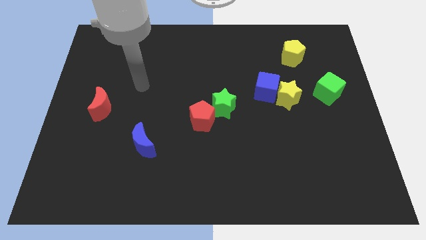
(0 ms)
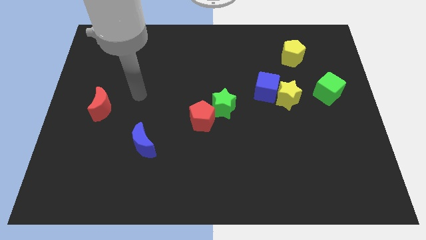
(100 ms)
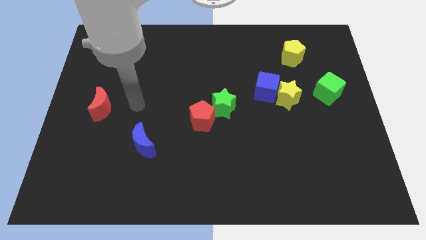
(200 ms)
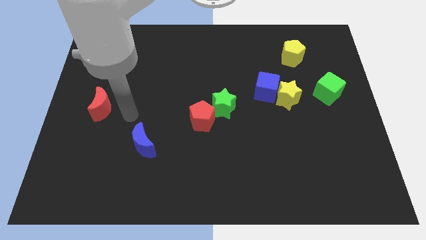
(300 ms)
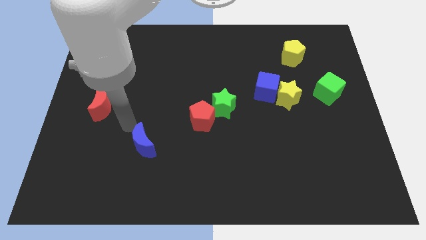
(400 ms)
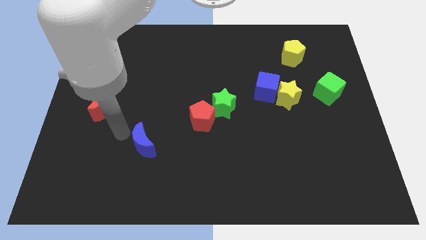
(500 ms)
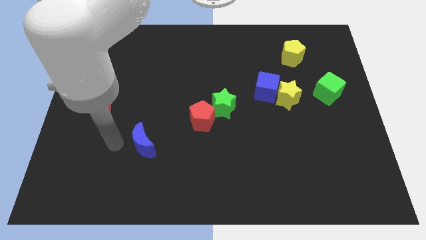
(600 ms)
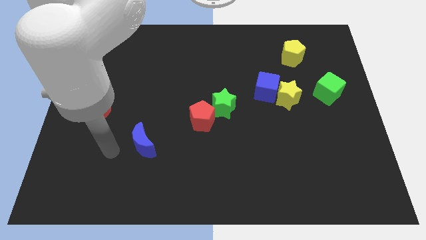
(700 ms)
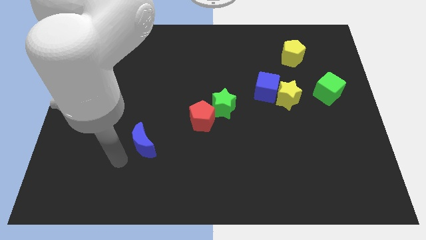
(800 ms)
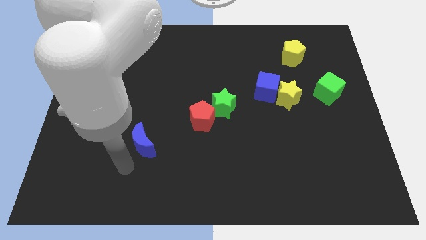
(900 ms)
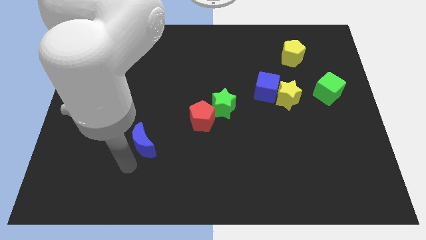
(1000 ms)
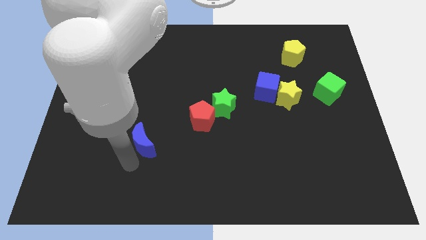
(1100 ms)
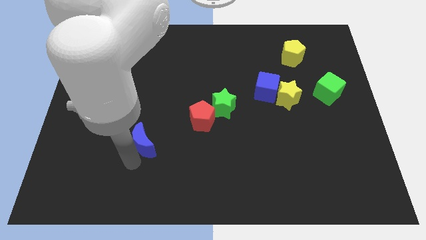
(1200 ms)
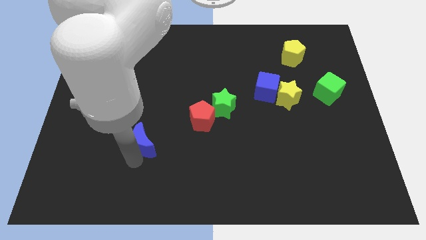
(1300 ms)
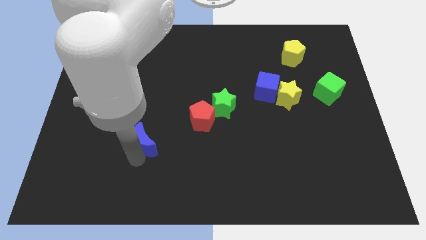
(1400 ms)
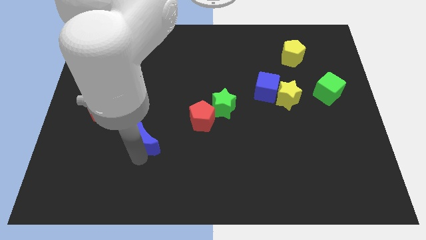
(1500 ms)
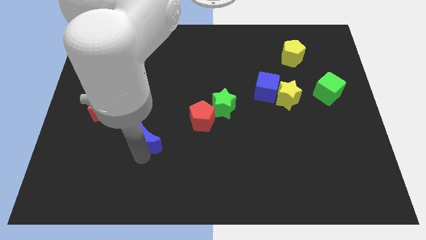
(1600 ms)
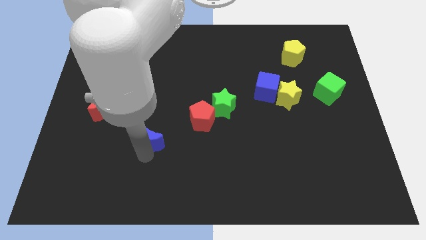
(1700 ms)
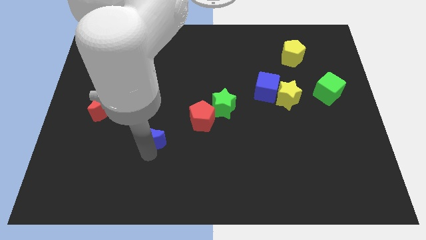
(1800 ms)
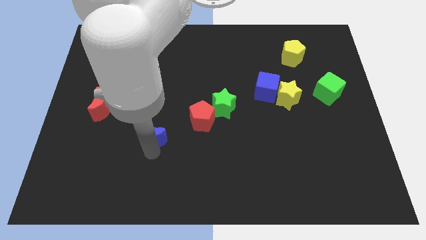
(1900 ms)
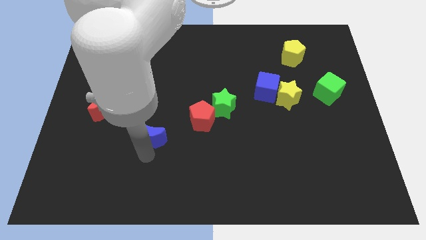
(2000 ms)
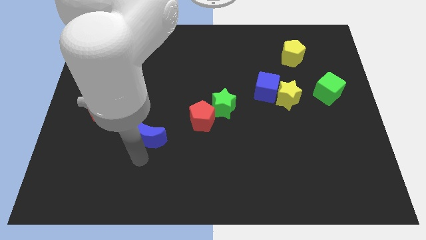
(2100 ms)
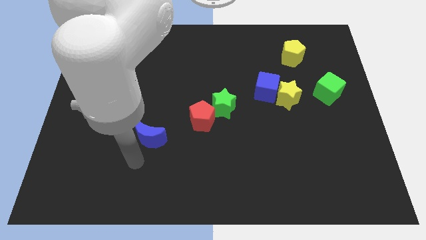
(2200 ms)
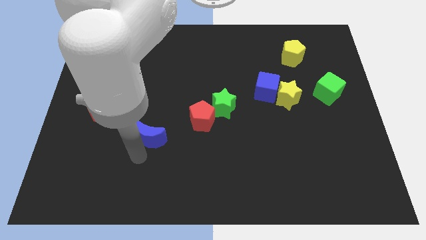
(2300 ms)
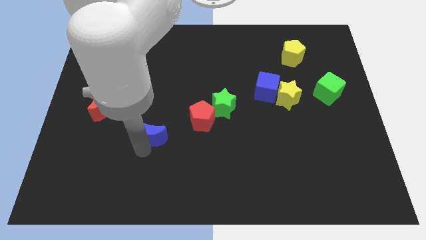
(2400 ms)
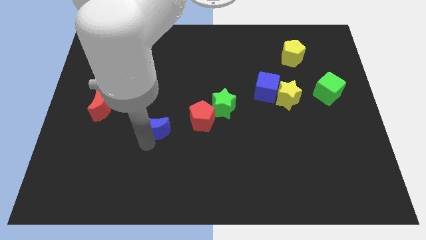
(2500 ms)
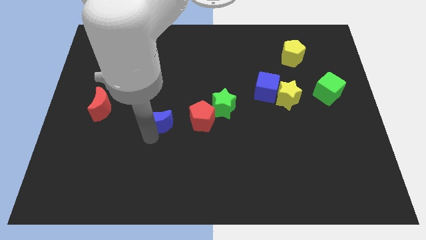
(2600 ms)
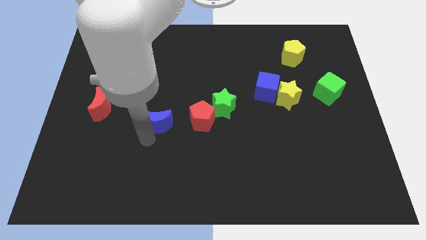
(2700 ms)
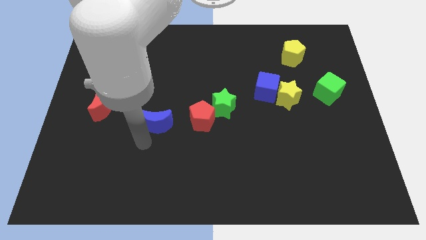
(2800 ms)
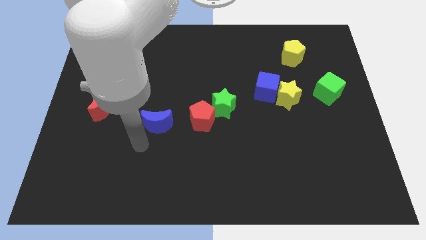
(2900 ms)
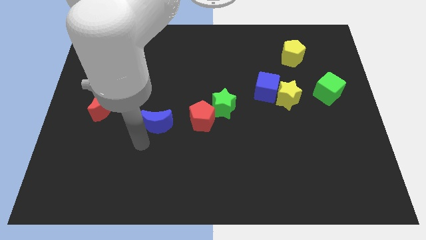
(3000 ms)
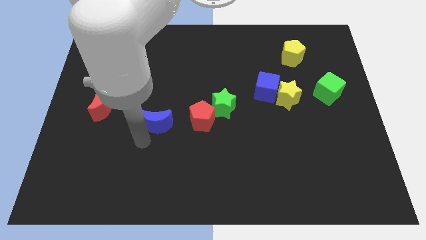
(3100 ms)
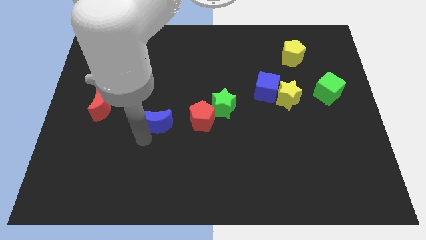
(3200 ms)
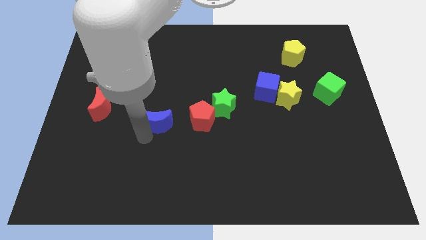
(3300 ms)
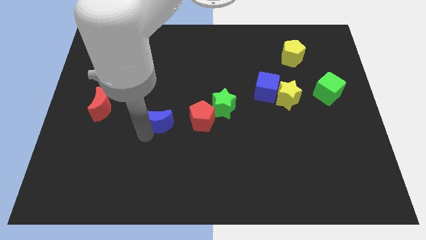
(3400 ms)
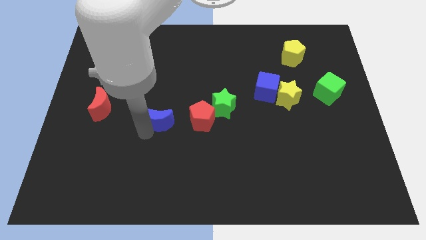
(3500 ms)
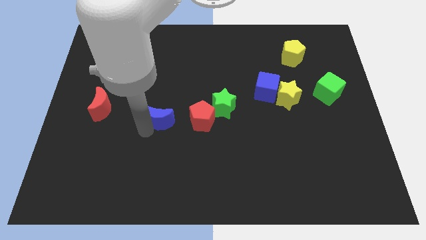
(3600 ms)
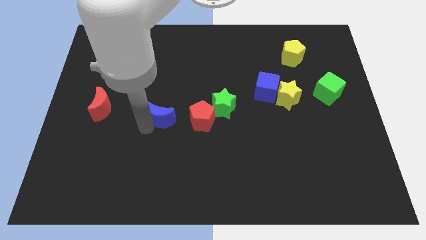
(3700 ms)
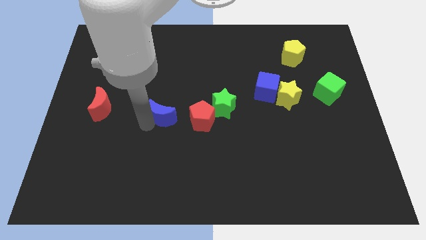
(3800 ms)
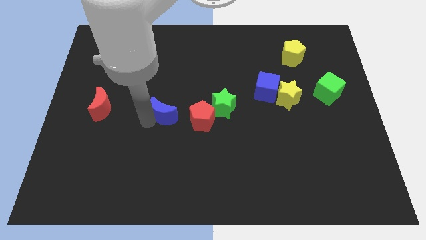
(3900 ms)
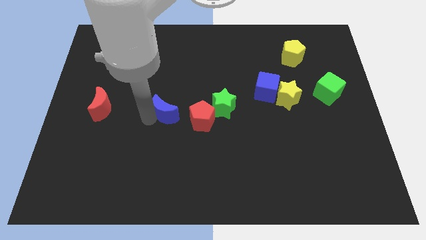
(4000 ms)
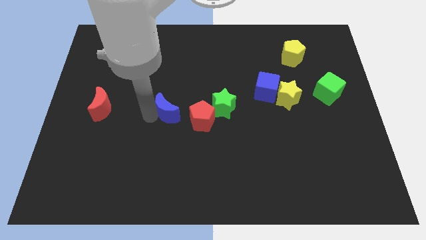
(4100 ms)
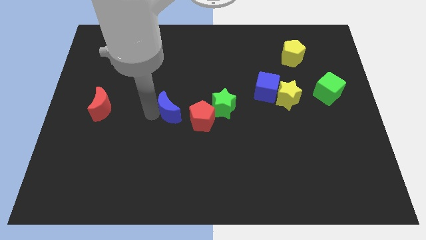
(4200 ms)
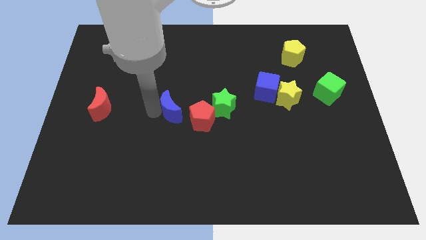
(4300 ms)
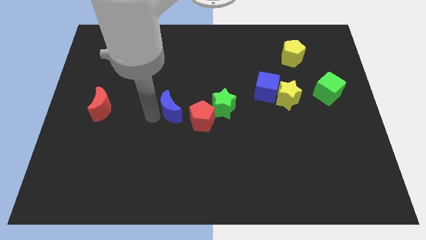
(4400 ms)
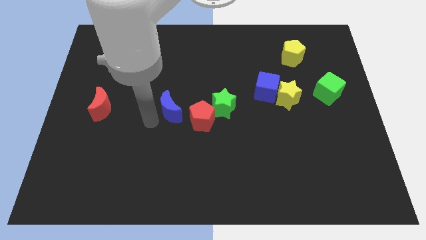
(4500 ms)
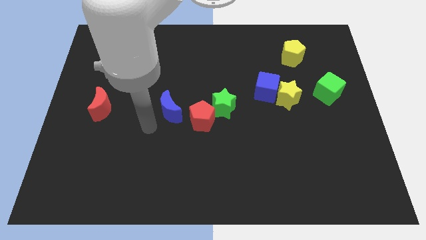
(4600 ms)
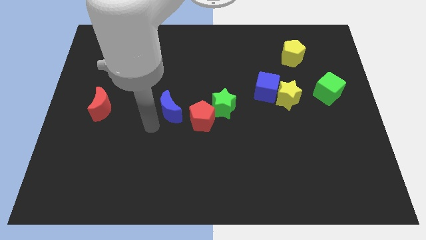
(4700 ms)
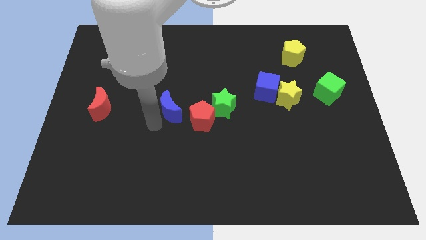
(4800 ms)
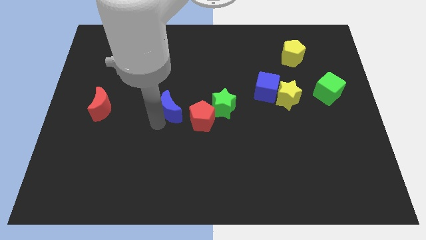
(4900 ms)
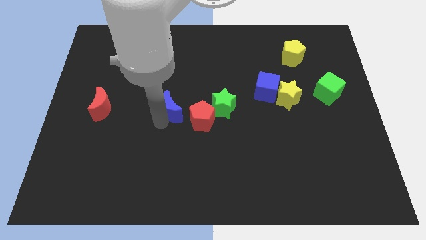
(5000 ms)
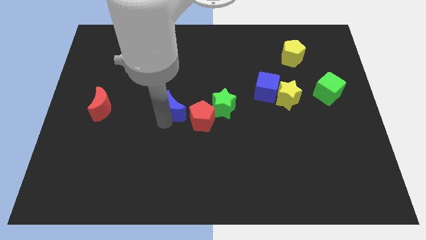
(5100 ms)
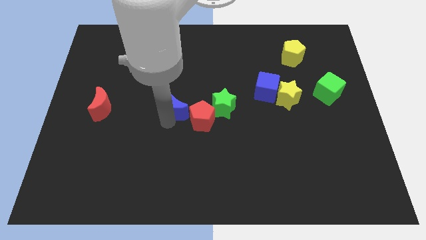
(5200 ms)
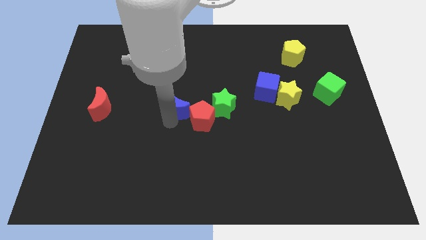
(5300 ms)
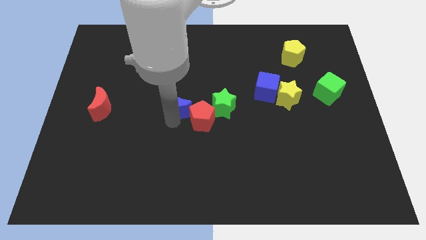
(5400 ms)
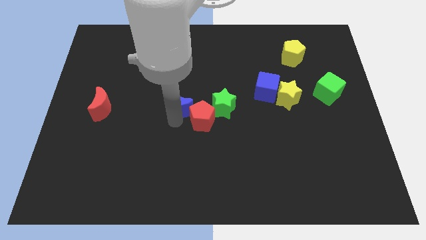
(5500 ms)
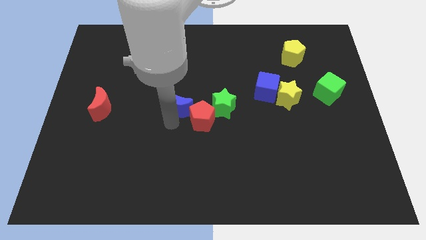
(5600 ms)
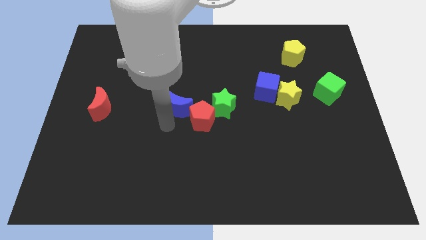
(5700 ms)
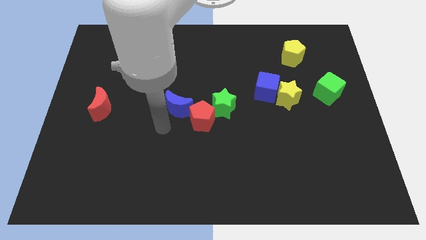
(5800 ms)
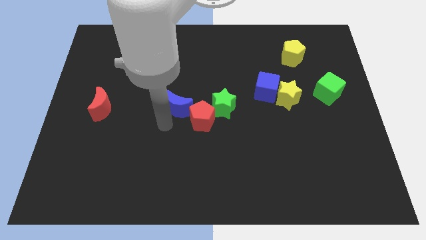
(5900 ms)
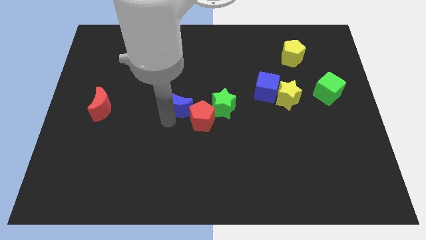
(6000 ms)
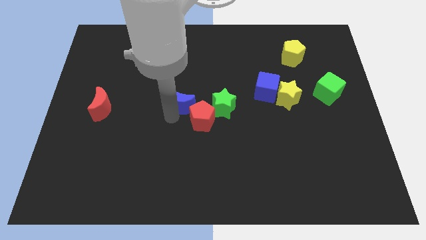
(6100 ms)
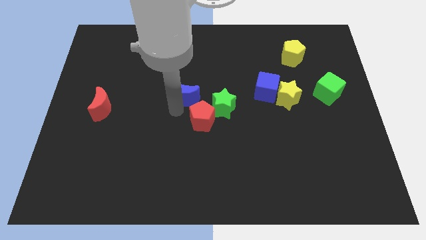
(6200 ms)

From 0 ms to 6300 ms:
put the blue moon to the top side of the red pentagon

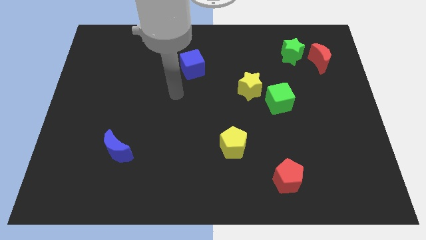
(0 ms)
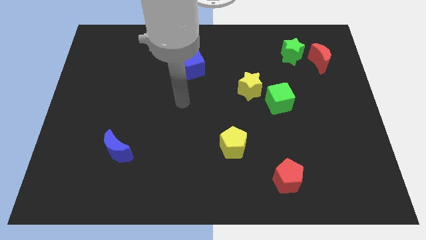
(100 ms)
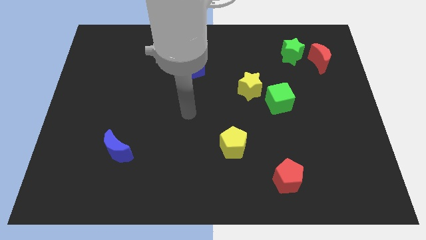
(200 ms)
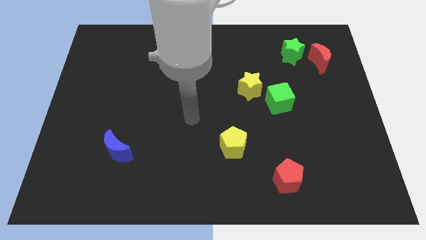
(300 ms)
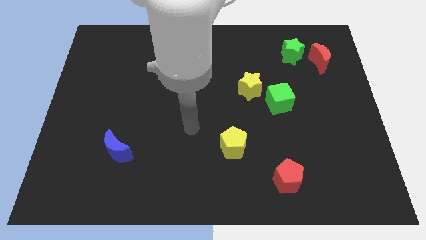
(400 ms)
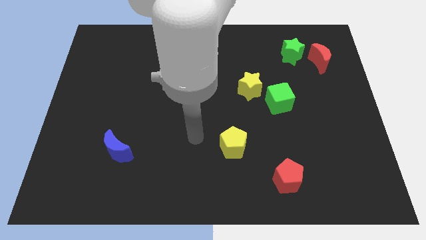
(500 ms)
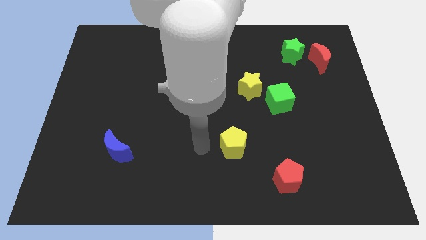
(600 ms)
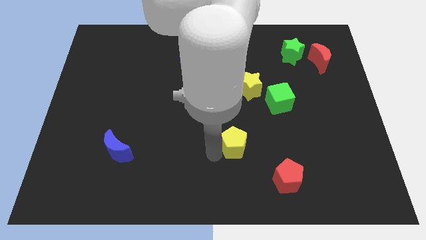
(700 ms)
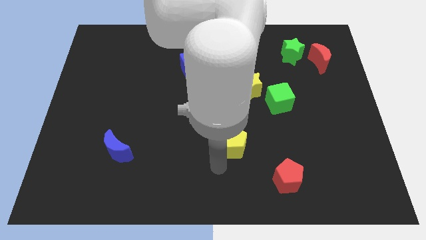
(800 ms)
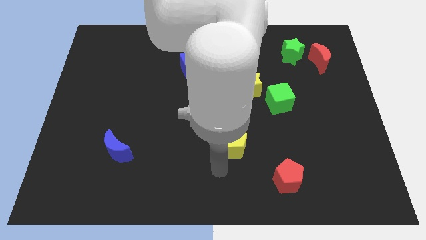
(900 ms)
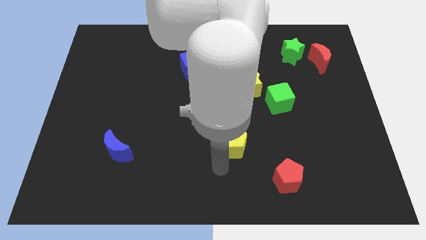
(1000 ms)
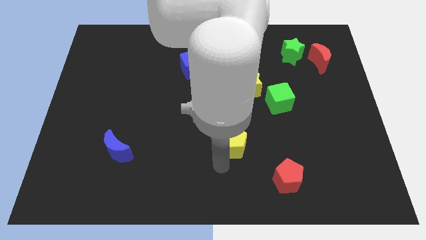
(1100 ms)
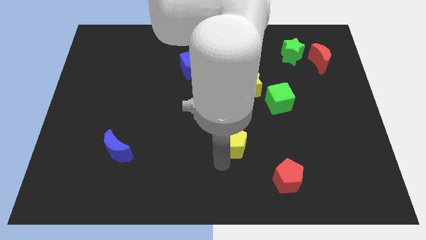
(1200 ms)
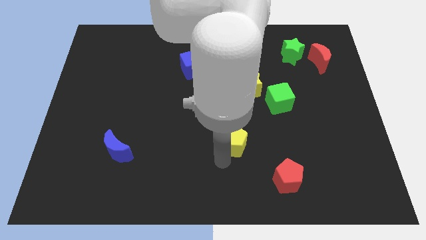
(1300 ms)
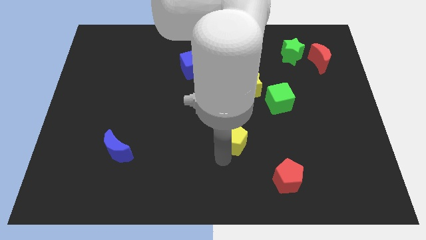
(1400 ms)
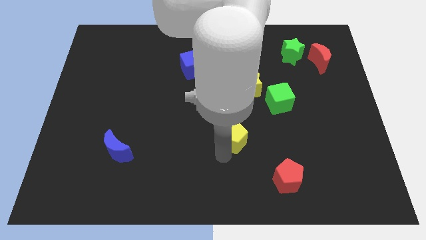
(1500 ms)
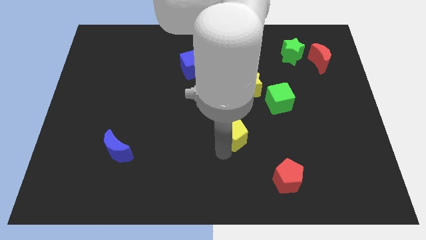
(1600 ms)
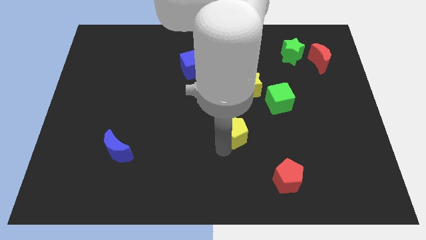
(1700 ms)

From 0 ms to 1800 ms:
put the yellow pentagon below the yellow star

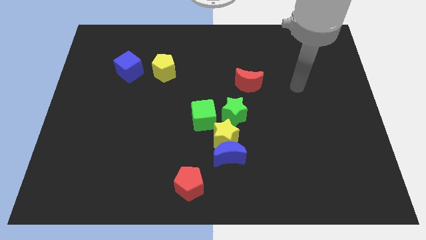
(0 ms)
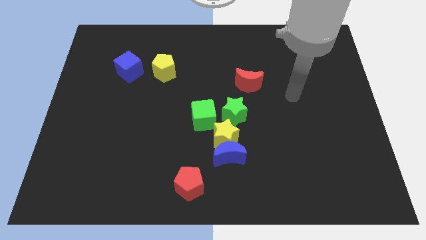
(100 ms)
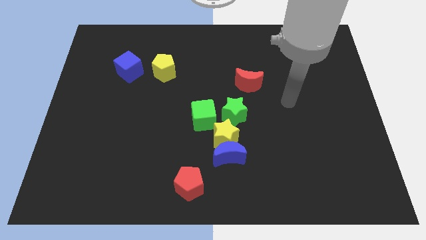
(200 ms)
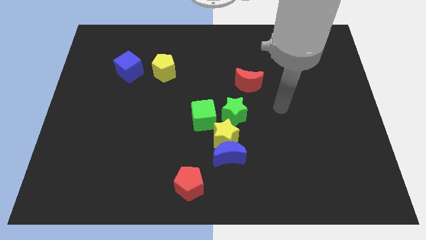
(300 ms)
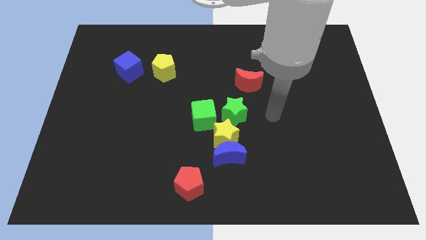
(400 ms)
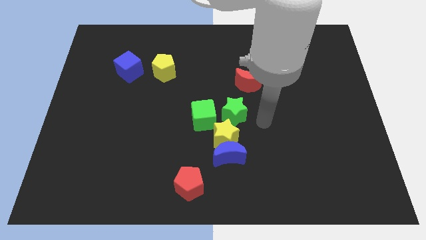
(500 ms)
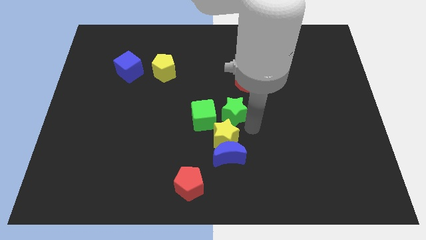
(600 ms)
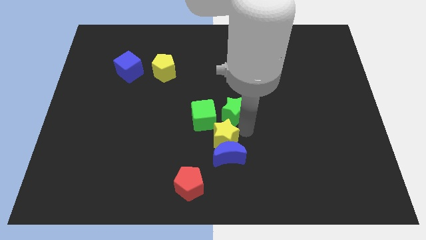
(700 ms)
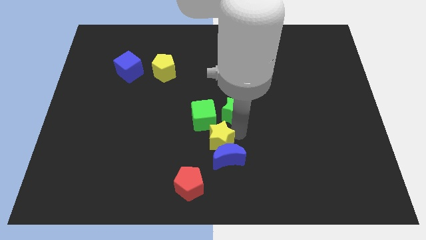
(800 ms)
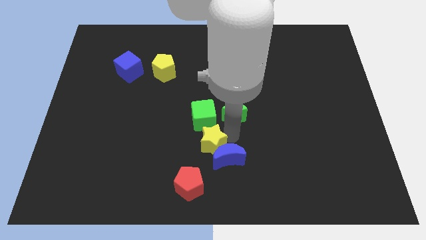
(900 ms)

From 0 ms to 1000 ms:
put the yellow star just left of the blue moon
